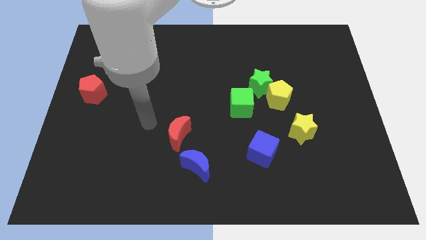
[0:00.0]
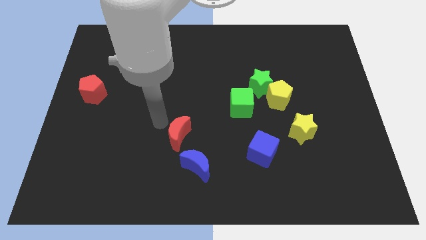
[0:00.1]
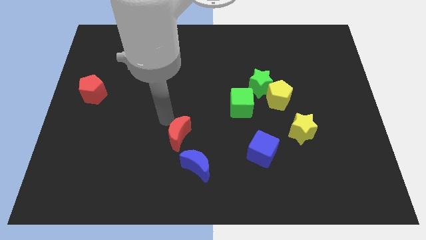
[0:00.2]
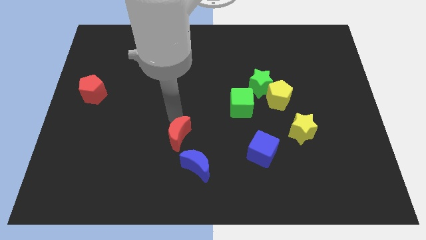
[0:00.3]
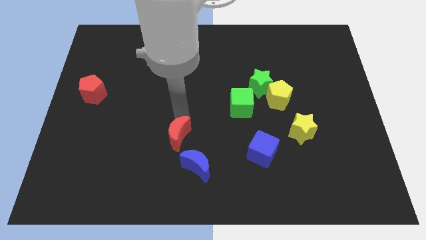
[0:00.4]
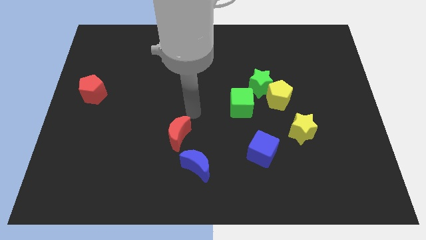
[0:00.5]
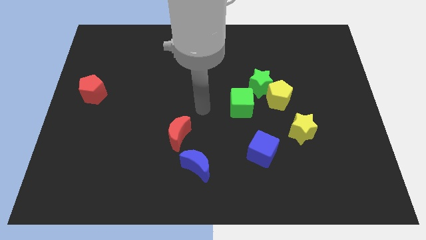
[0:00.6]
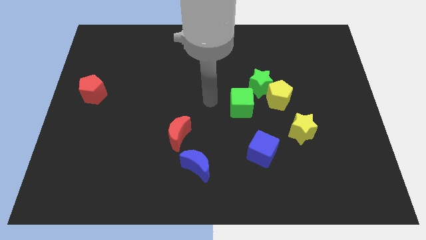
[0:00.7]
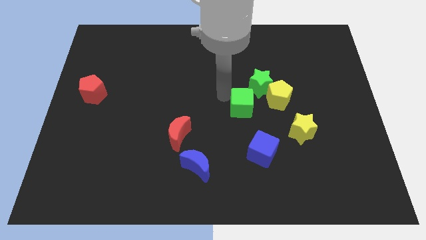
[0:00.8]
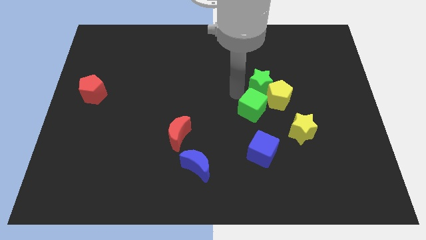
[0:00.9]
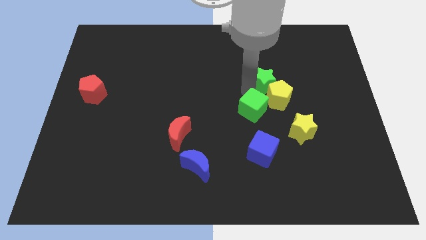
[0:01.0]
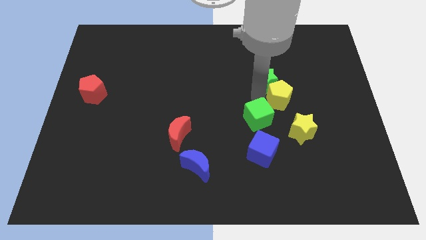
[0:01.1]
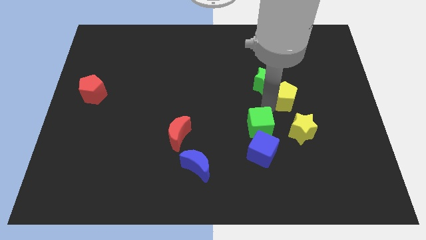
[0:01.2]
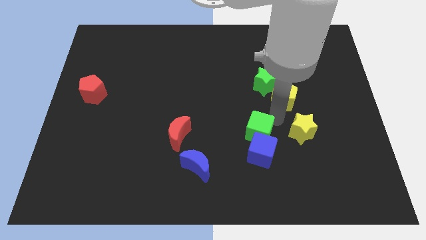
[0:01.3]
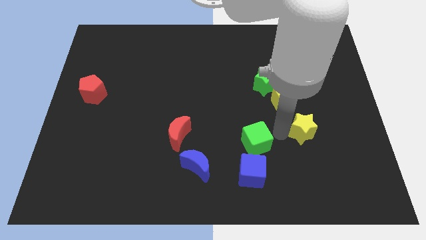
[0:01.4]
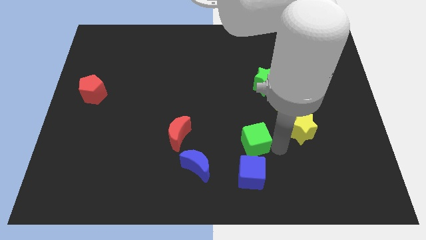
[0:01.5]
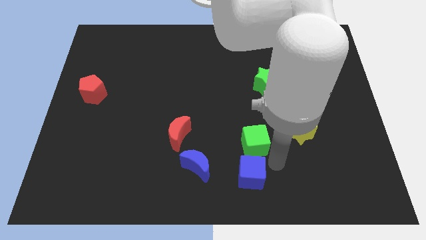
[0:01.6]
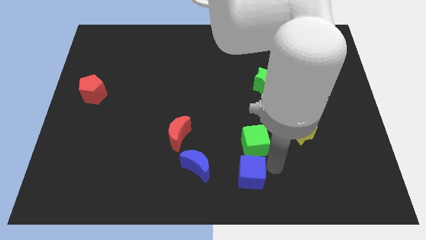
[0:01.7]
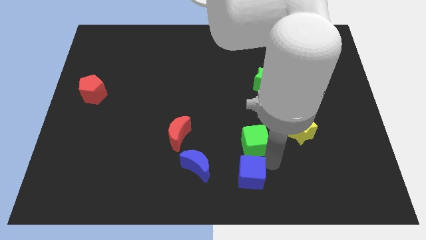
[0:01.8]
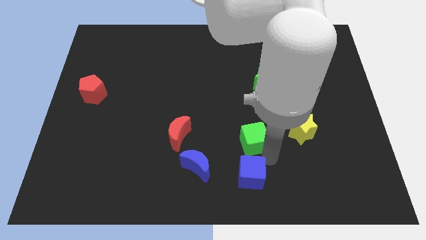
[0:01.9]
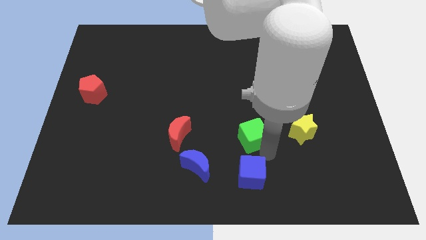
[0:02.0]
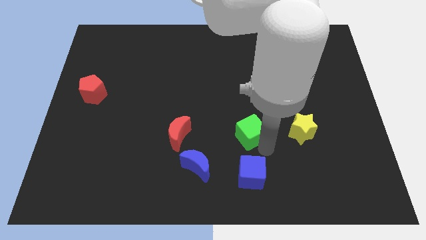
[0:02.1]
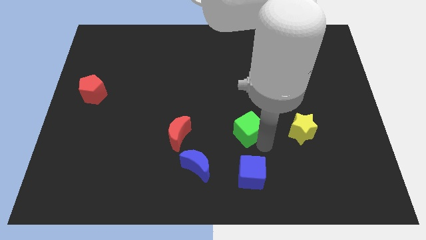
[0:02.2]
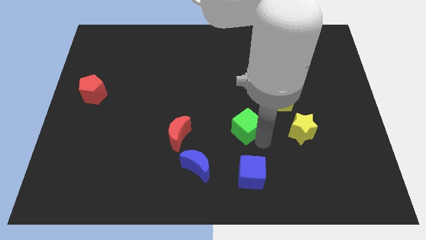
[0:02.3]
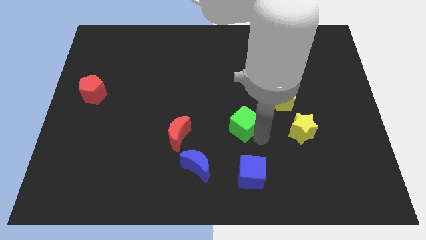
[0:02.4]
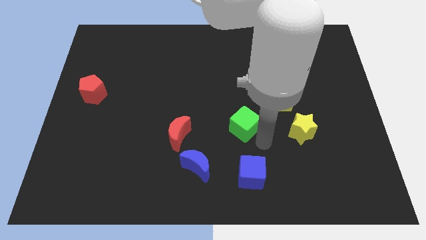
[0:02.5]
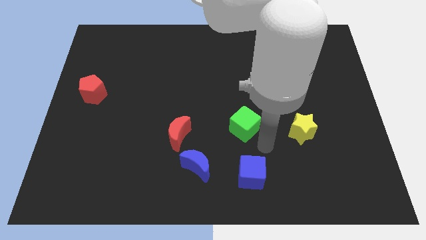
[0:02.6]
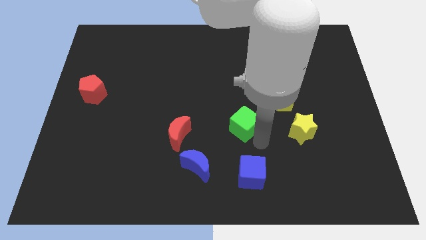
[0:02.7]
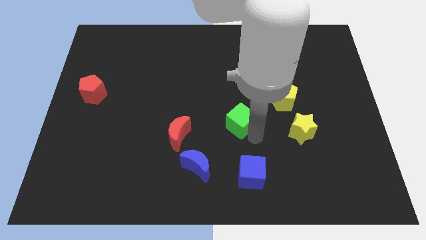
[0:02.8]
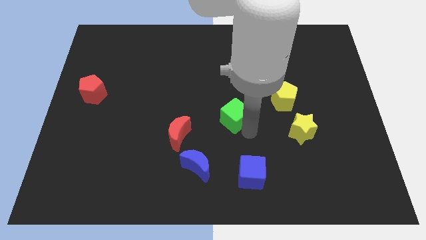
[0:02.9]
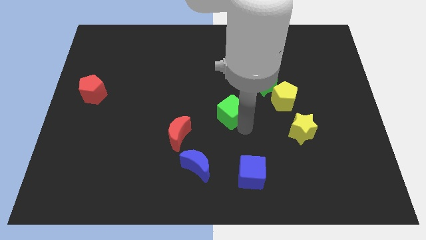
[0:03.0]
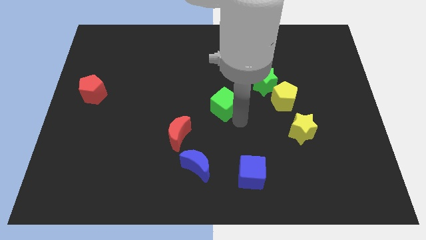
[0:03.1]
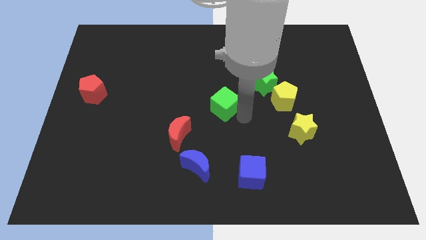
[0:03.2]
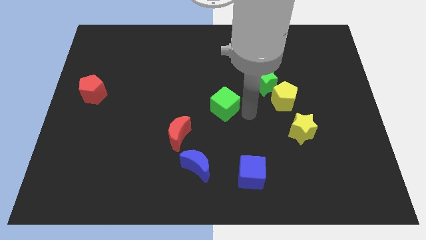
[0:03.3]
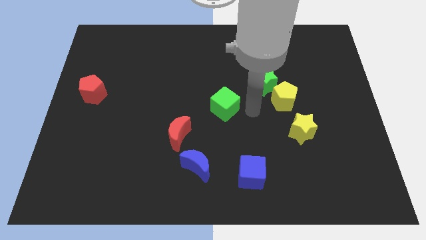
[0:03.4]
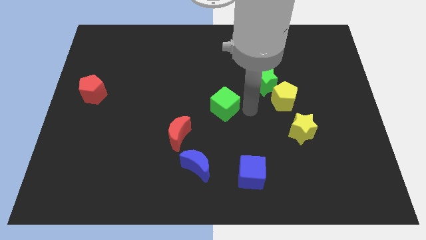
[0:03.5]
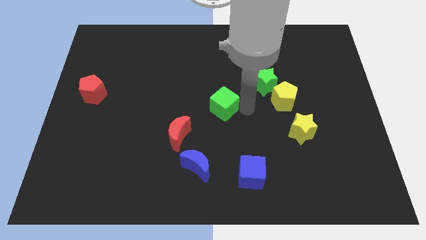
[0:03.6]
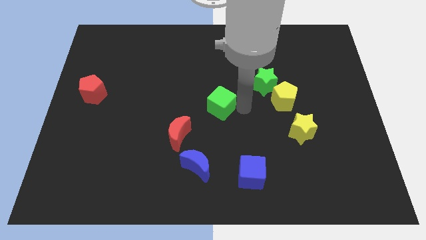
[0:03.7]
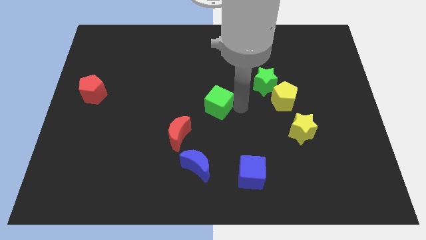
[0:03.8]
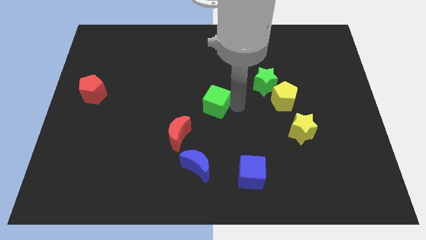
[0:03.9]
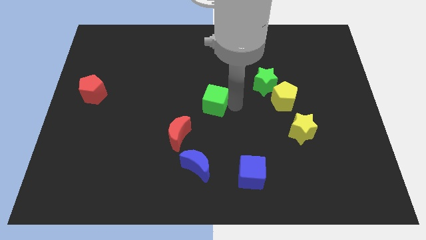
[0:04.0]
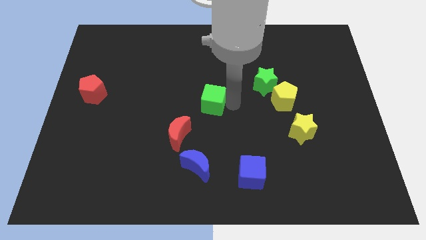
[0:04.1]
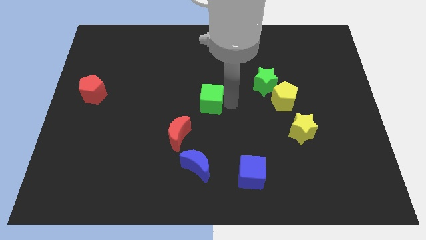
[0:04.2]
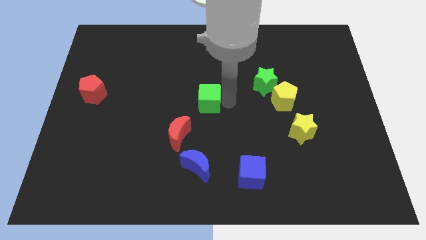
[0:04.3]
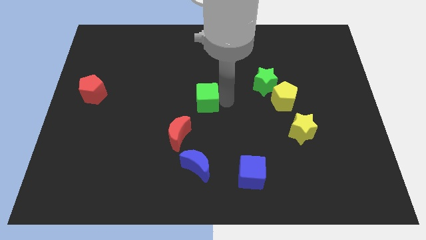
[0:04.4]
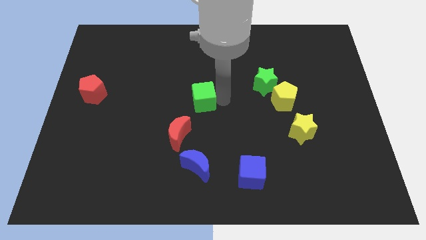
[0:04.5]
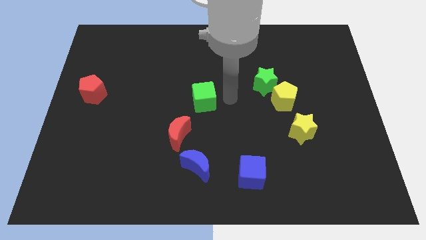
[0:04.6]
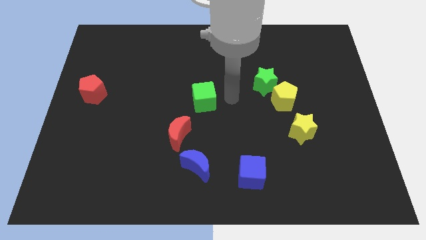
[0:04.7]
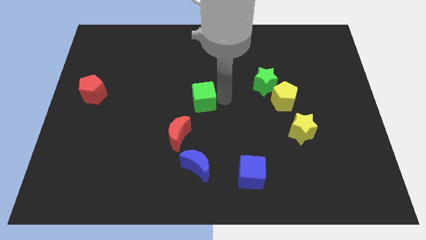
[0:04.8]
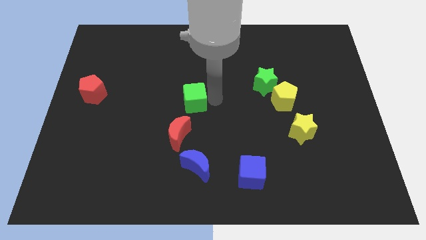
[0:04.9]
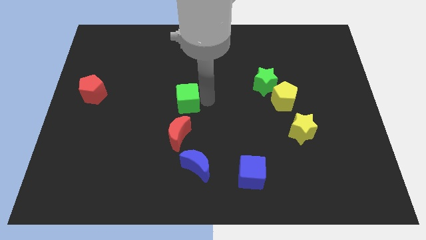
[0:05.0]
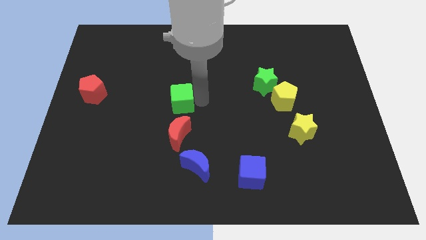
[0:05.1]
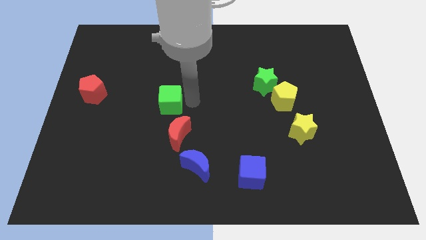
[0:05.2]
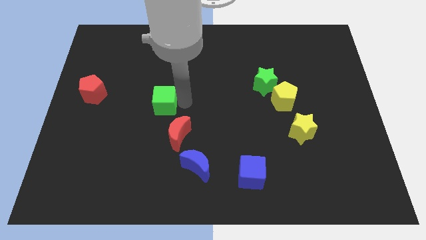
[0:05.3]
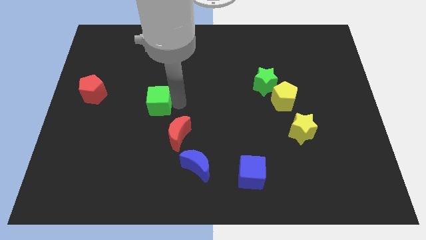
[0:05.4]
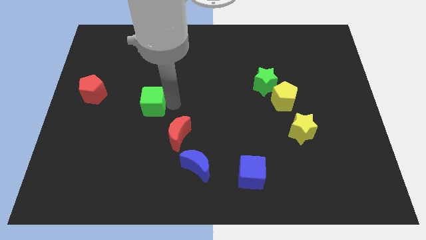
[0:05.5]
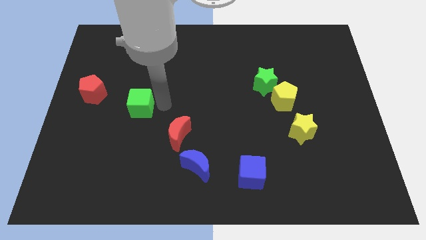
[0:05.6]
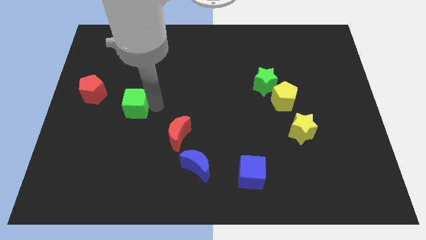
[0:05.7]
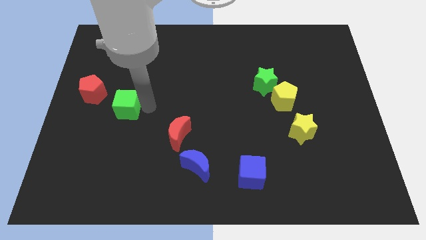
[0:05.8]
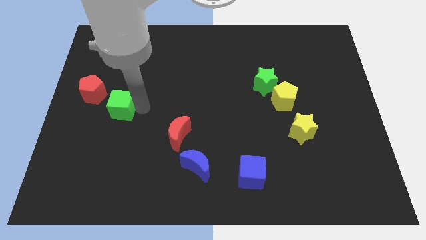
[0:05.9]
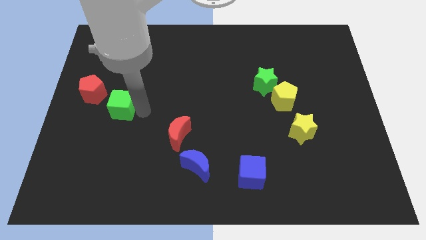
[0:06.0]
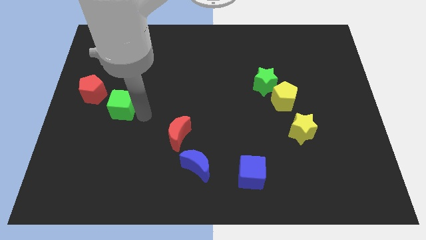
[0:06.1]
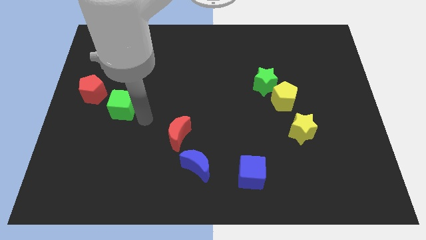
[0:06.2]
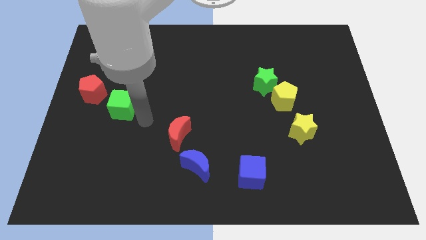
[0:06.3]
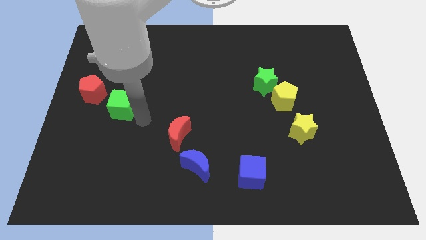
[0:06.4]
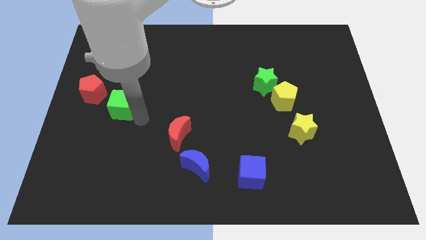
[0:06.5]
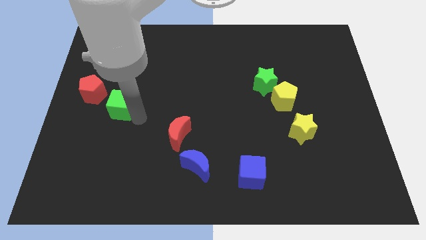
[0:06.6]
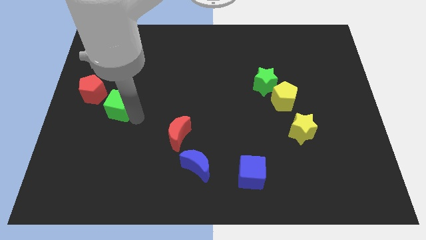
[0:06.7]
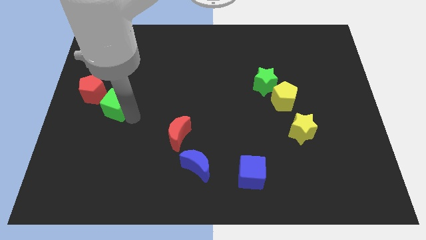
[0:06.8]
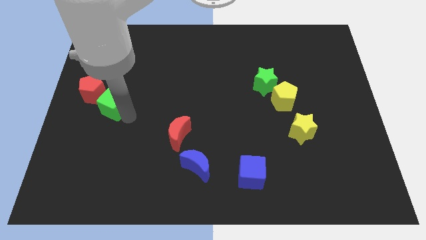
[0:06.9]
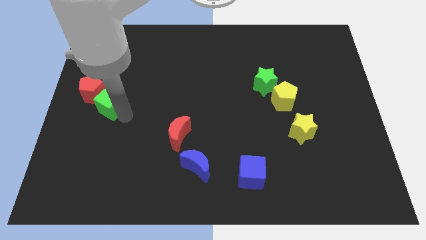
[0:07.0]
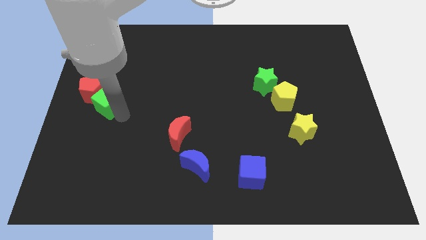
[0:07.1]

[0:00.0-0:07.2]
push the green cube next to the red pentagon

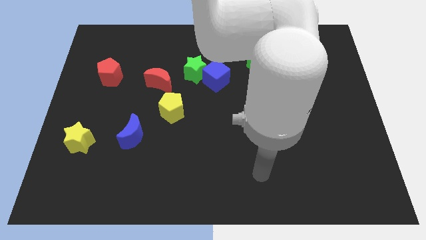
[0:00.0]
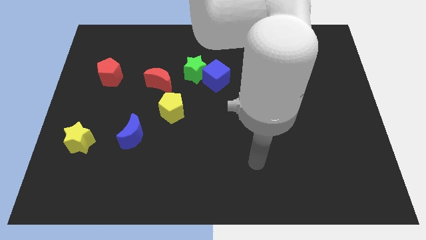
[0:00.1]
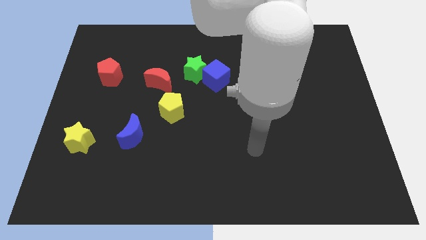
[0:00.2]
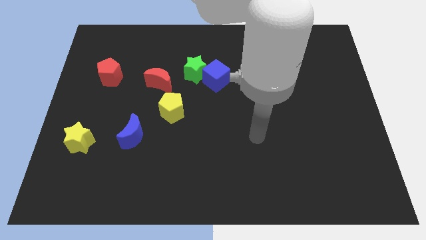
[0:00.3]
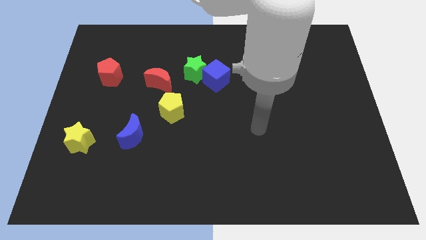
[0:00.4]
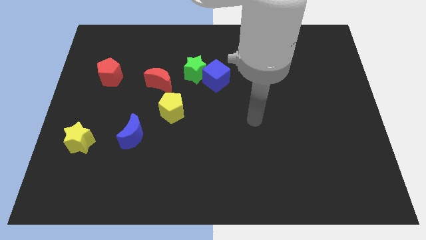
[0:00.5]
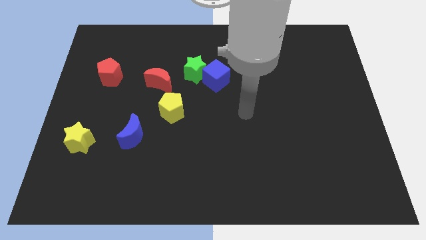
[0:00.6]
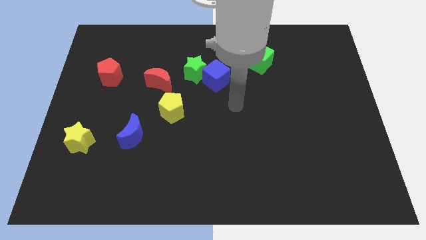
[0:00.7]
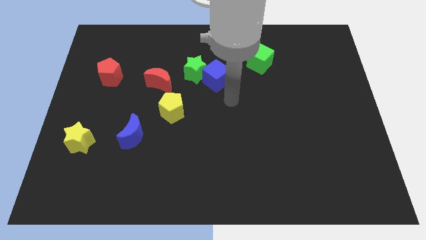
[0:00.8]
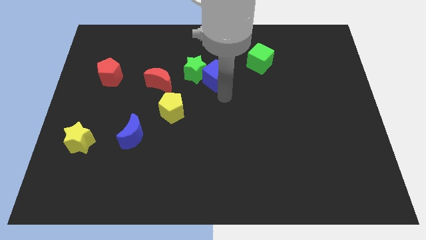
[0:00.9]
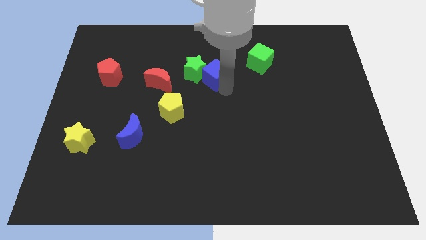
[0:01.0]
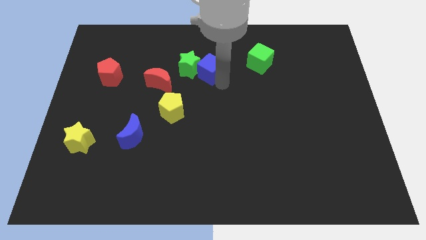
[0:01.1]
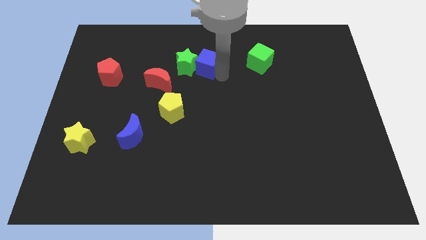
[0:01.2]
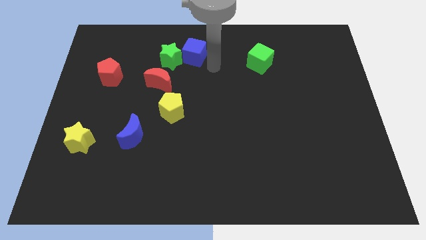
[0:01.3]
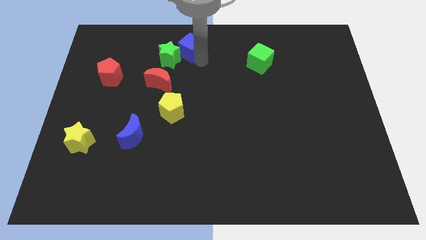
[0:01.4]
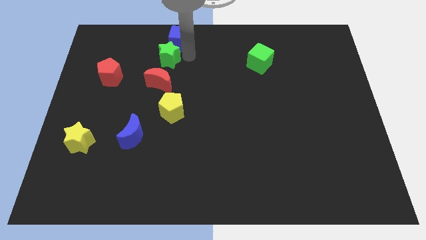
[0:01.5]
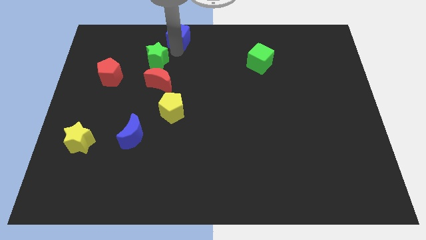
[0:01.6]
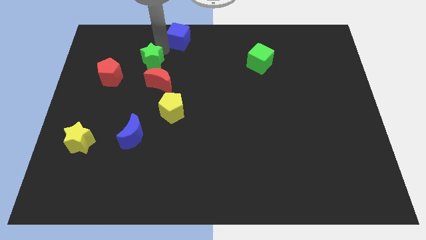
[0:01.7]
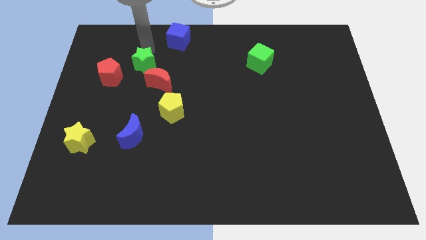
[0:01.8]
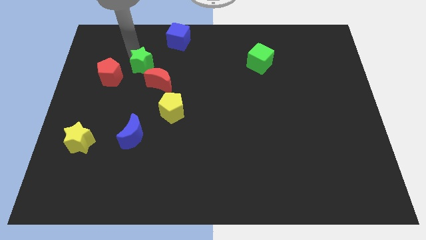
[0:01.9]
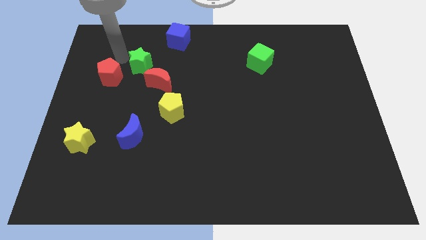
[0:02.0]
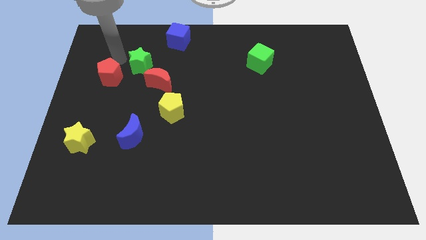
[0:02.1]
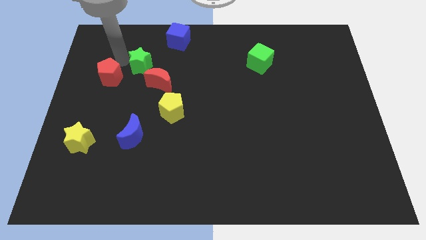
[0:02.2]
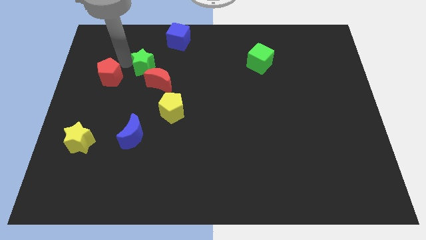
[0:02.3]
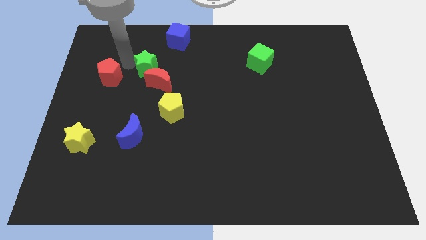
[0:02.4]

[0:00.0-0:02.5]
put the green star to the red moon
